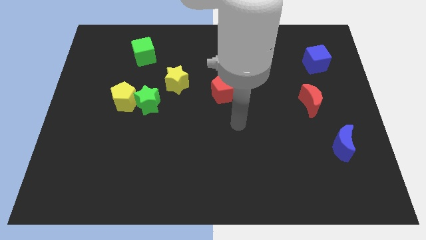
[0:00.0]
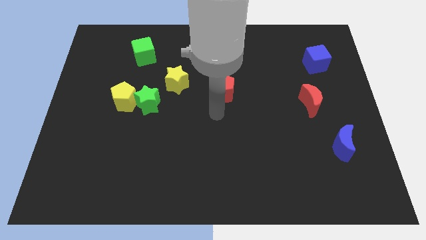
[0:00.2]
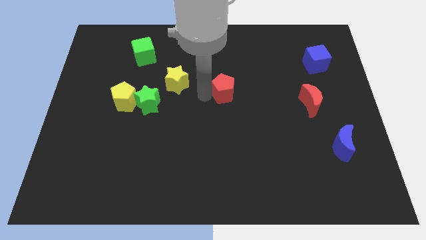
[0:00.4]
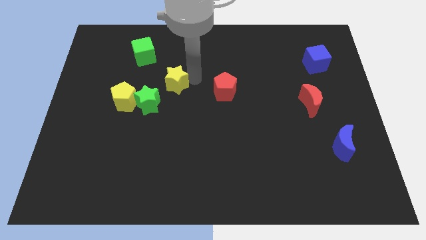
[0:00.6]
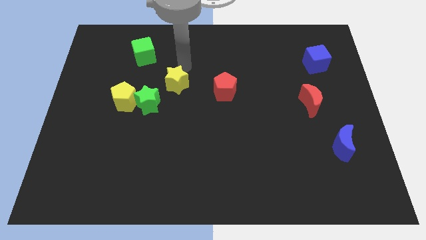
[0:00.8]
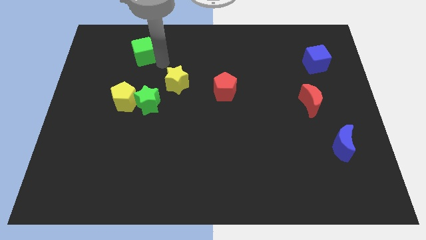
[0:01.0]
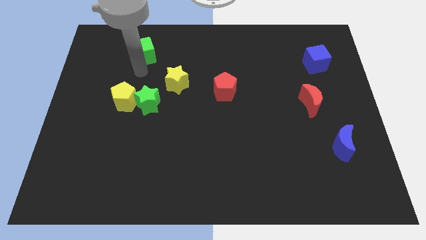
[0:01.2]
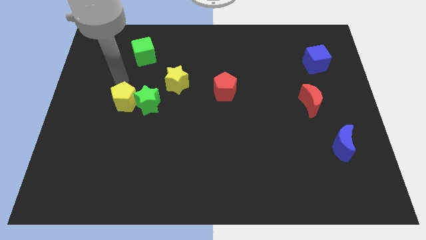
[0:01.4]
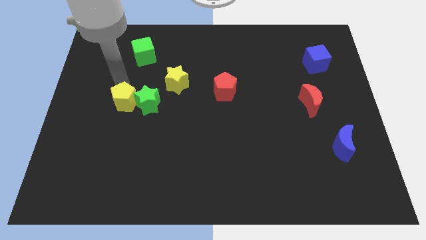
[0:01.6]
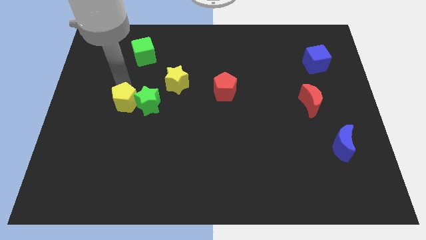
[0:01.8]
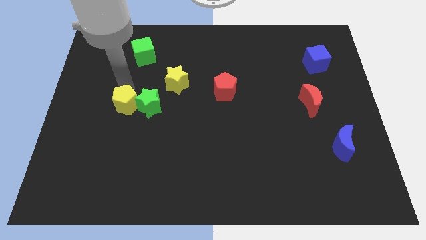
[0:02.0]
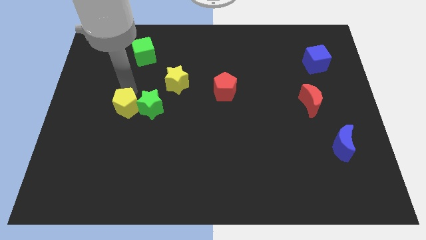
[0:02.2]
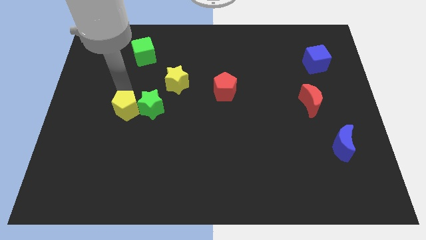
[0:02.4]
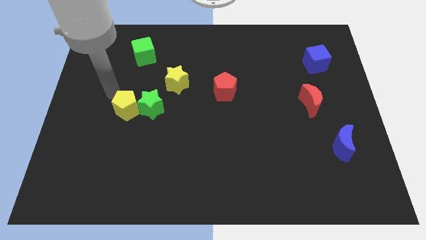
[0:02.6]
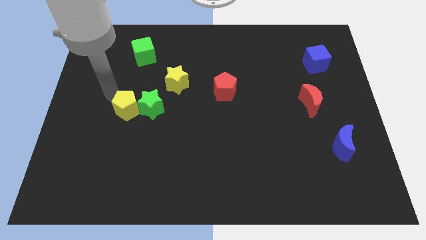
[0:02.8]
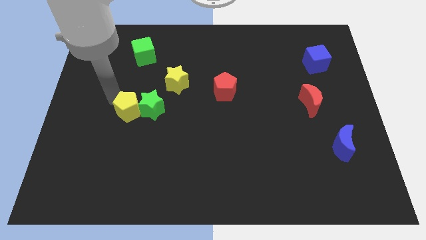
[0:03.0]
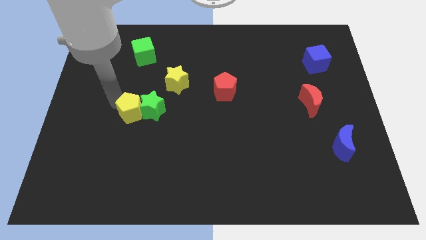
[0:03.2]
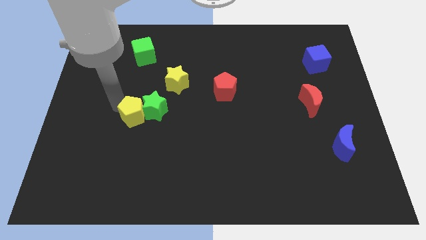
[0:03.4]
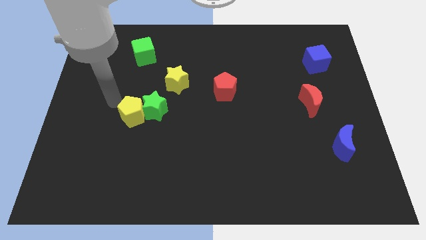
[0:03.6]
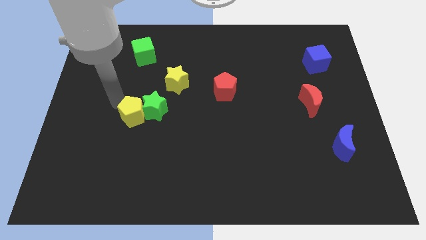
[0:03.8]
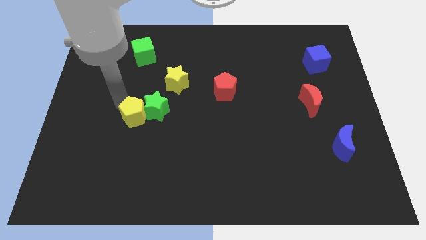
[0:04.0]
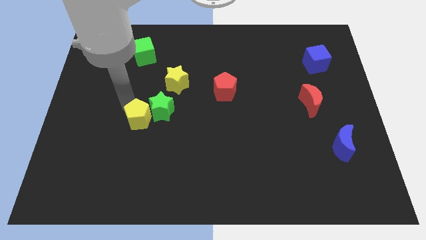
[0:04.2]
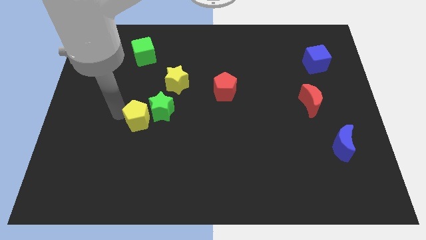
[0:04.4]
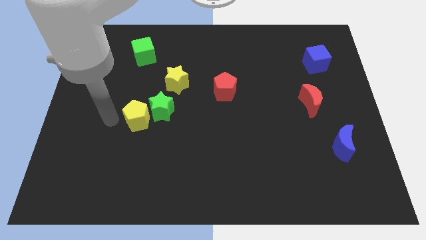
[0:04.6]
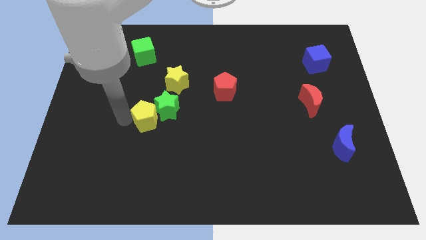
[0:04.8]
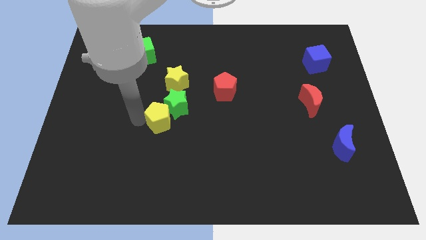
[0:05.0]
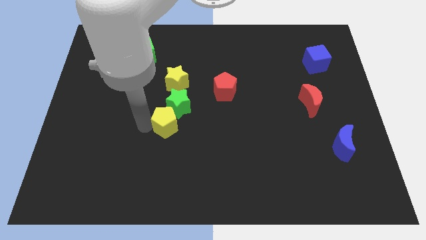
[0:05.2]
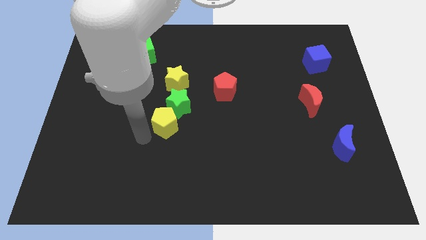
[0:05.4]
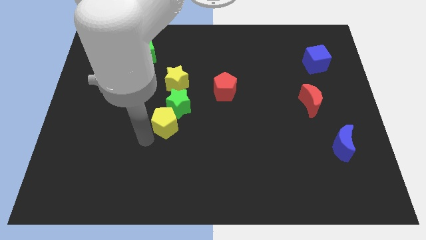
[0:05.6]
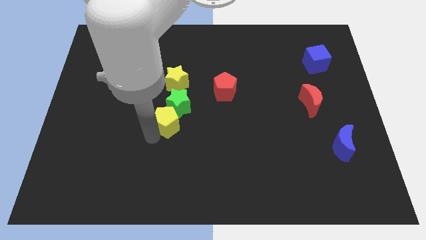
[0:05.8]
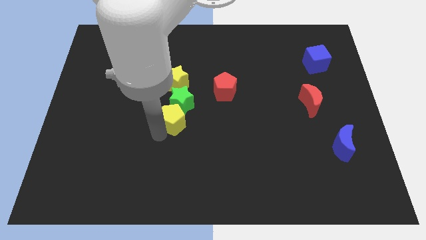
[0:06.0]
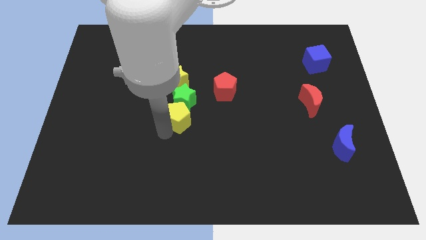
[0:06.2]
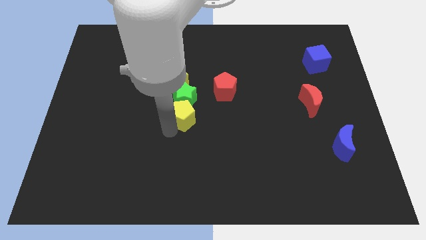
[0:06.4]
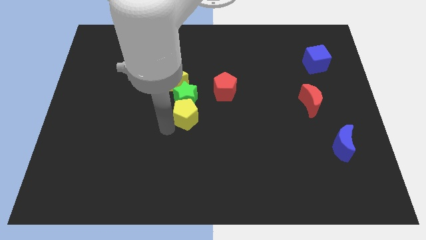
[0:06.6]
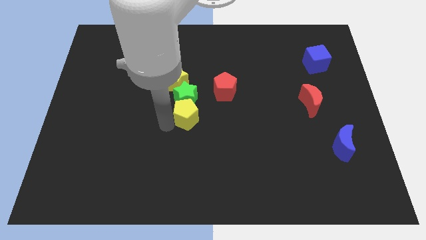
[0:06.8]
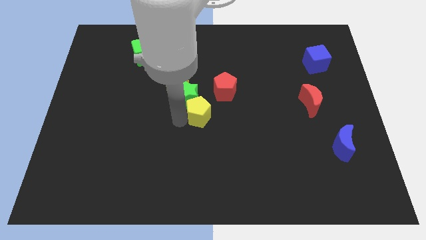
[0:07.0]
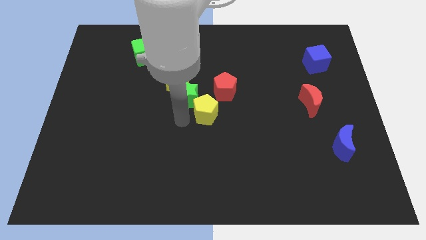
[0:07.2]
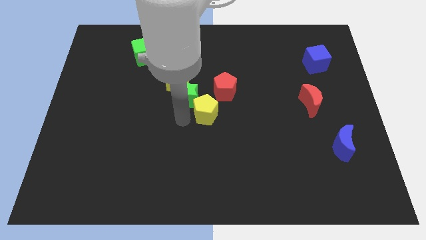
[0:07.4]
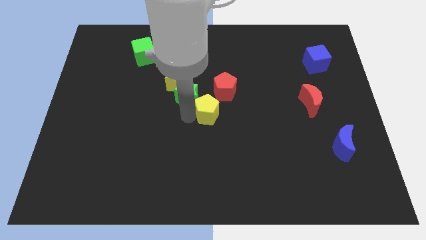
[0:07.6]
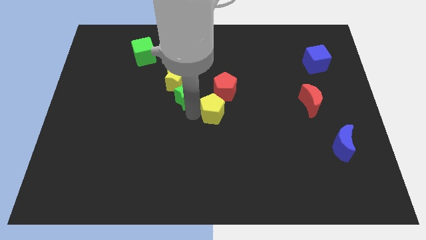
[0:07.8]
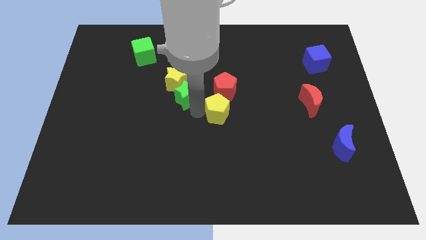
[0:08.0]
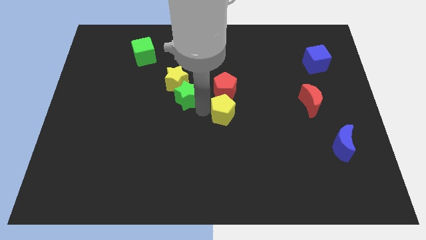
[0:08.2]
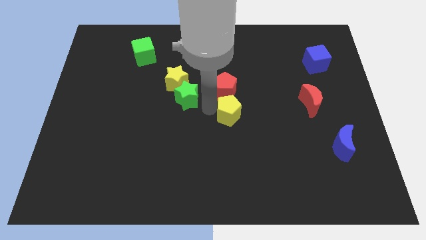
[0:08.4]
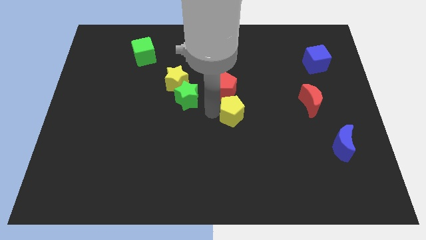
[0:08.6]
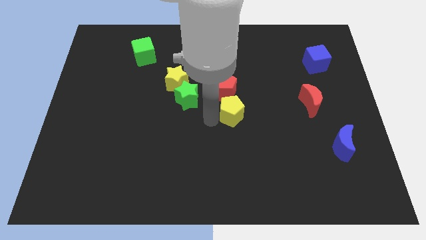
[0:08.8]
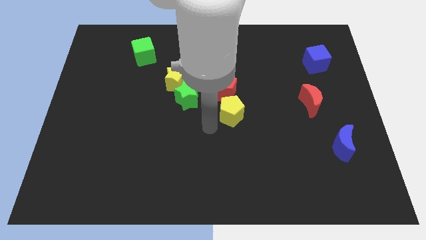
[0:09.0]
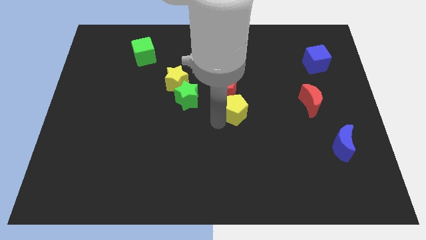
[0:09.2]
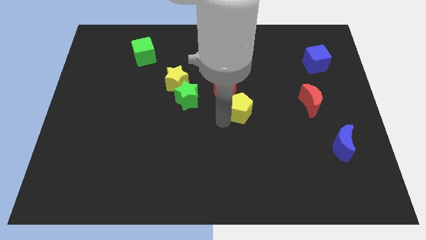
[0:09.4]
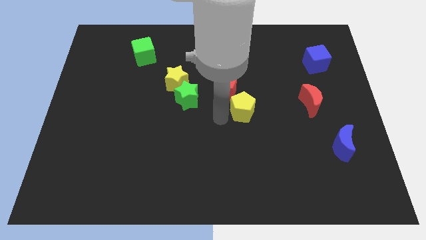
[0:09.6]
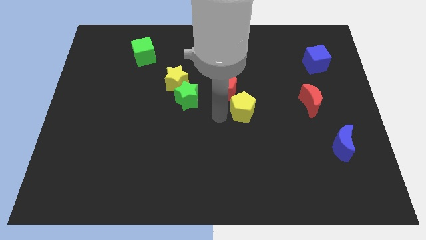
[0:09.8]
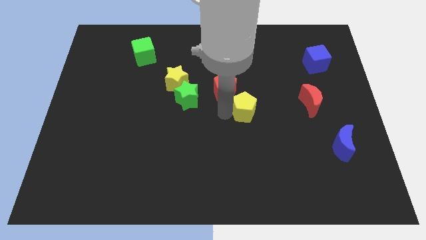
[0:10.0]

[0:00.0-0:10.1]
put the yellow pentagon left of the red moon

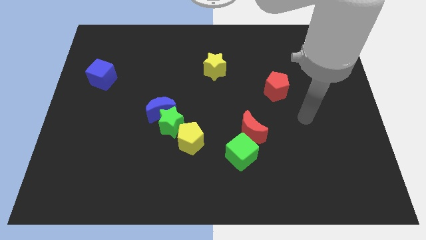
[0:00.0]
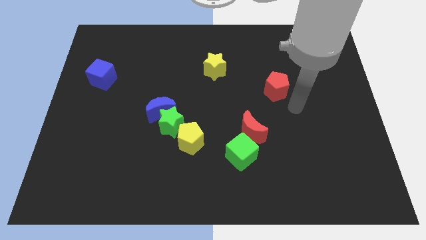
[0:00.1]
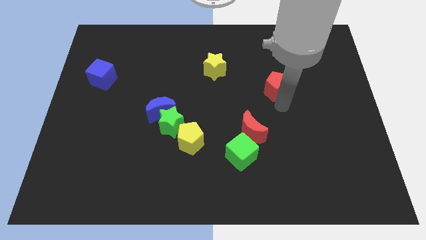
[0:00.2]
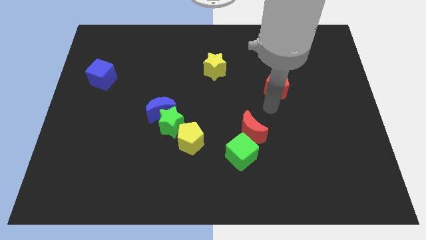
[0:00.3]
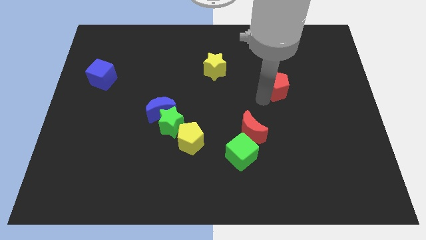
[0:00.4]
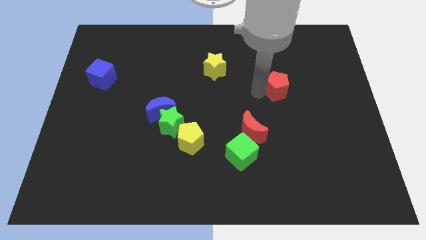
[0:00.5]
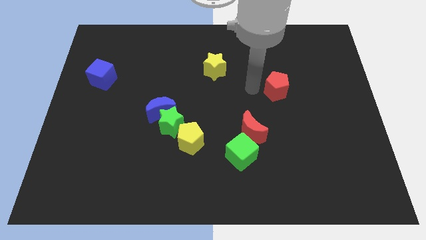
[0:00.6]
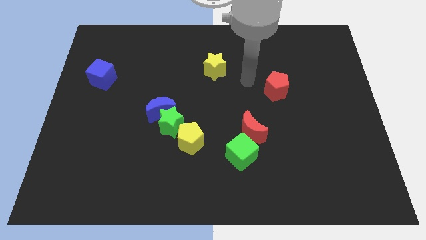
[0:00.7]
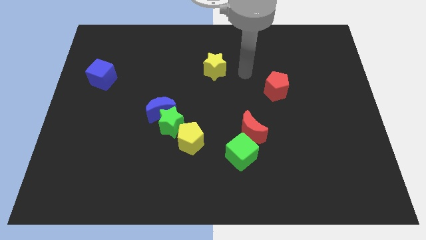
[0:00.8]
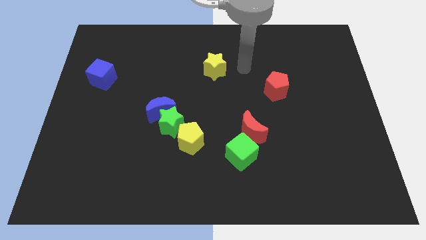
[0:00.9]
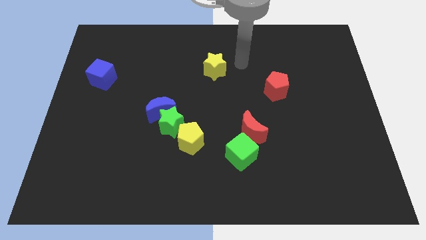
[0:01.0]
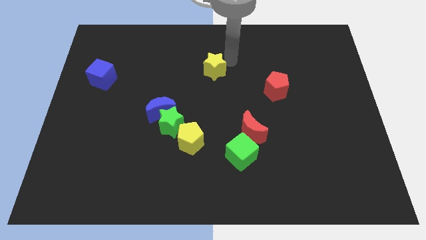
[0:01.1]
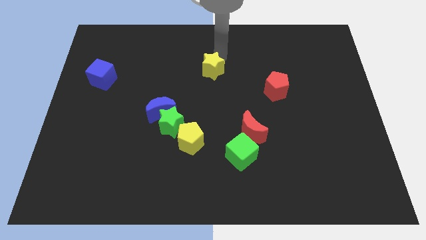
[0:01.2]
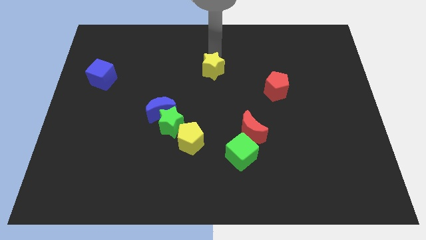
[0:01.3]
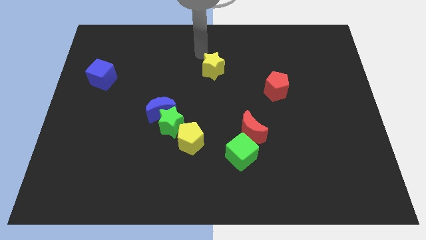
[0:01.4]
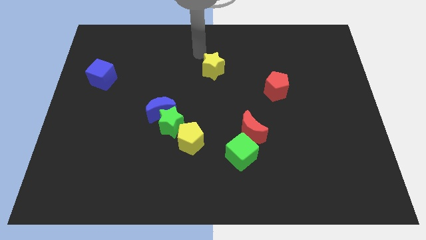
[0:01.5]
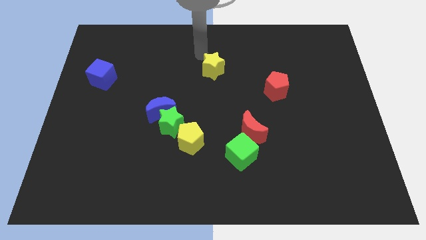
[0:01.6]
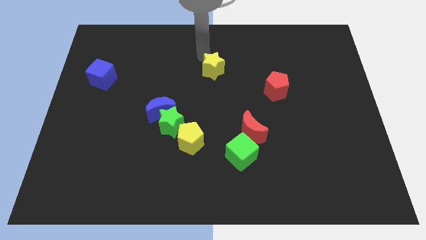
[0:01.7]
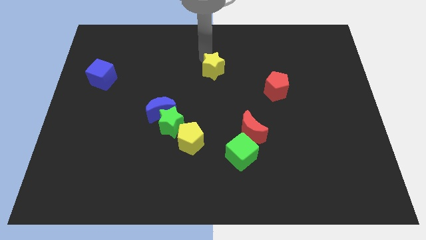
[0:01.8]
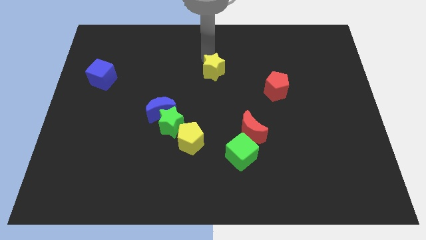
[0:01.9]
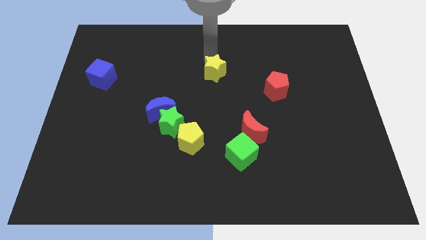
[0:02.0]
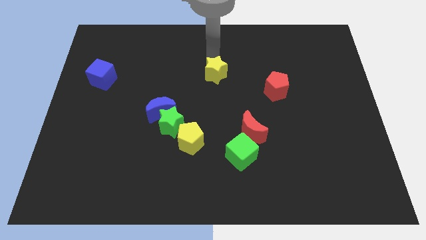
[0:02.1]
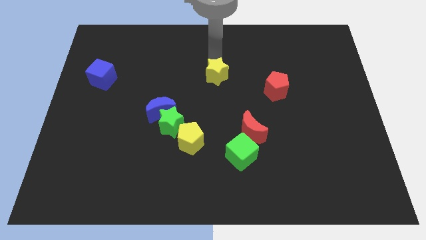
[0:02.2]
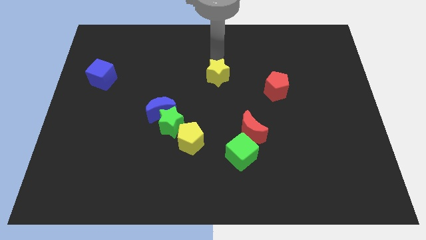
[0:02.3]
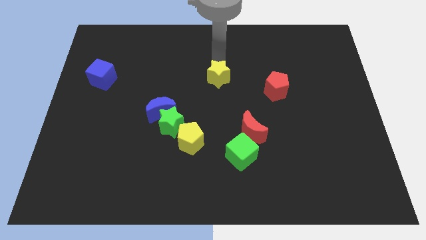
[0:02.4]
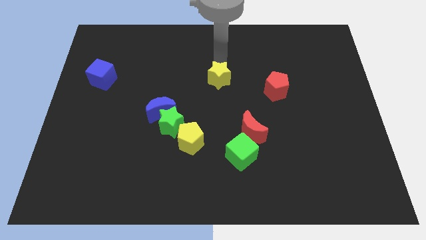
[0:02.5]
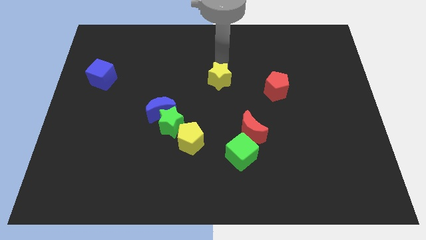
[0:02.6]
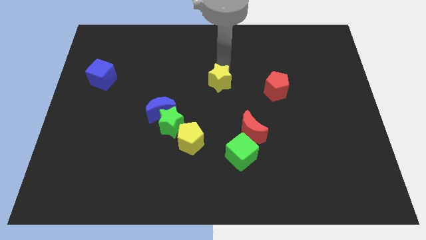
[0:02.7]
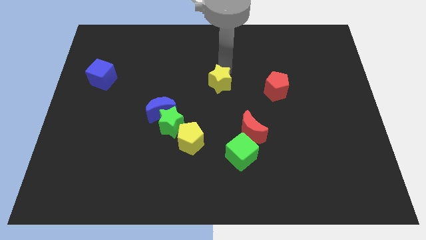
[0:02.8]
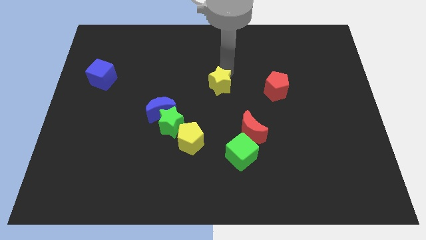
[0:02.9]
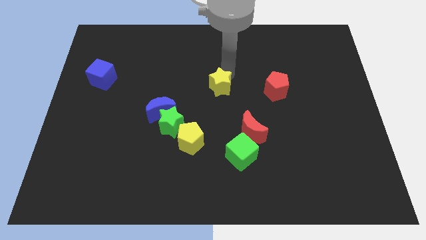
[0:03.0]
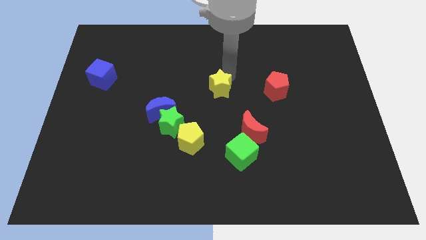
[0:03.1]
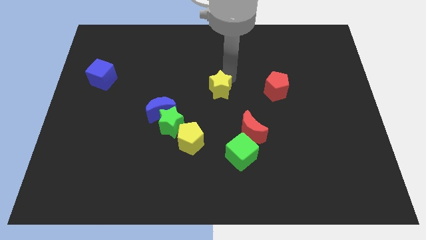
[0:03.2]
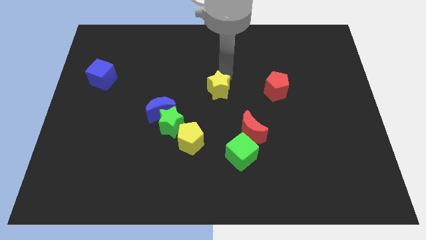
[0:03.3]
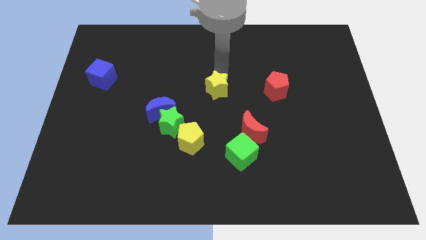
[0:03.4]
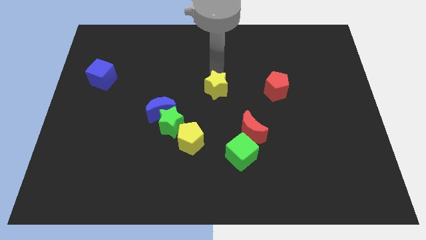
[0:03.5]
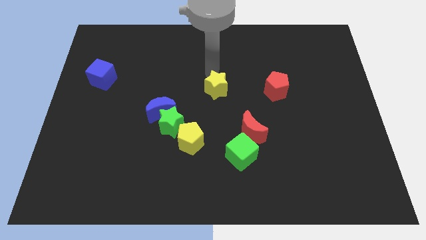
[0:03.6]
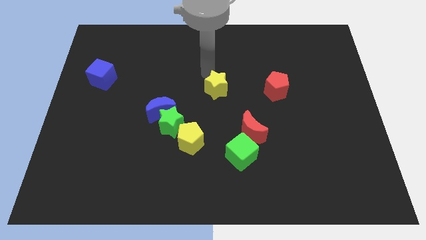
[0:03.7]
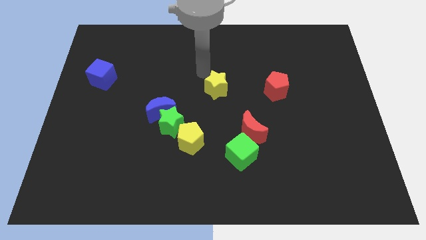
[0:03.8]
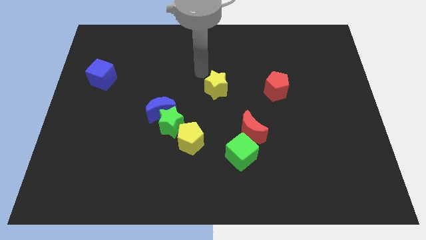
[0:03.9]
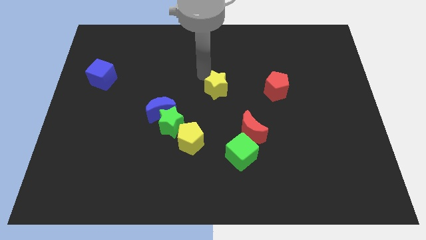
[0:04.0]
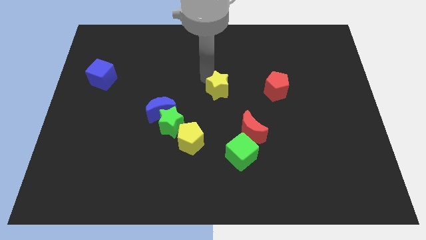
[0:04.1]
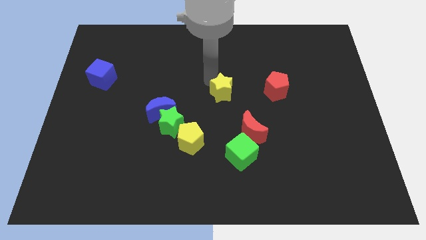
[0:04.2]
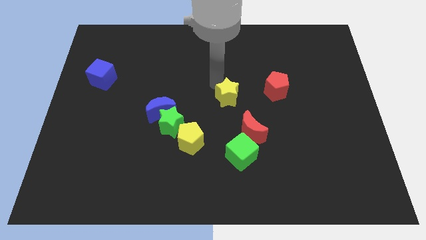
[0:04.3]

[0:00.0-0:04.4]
push the yellow star to the top left side of the red moon
